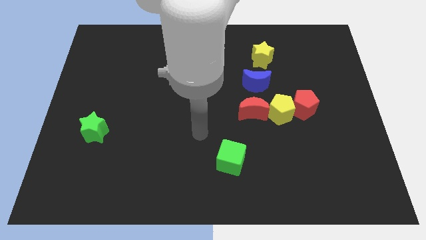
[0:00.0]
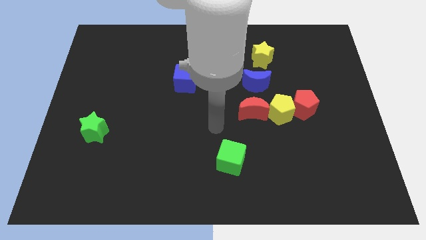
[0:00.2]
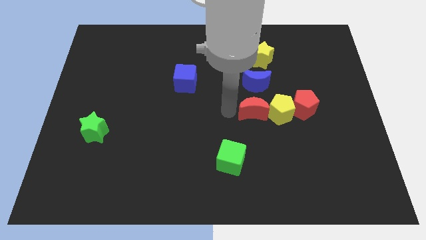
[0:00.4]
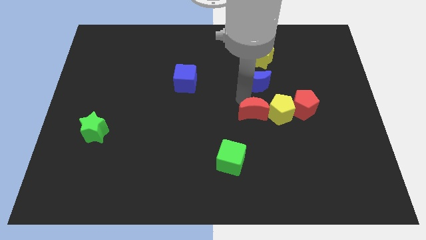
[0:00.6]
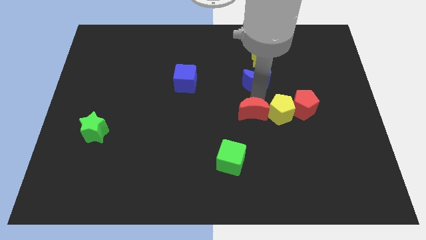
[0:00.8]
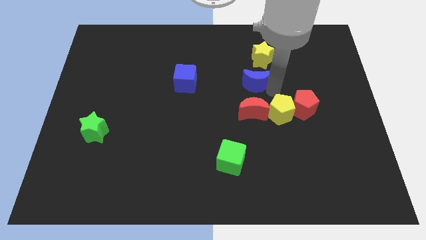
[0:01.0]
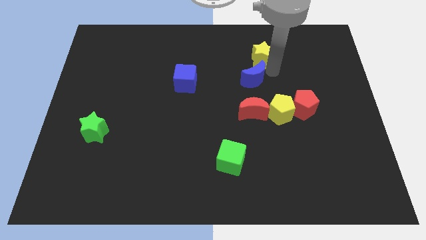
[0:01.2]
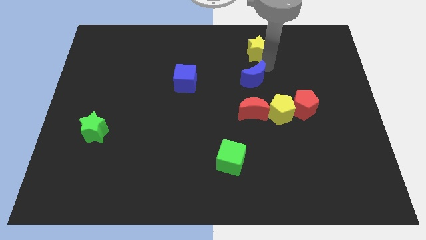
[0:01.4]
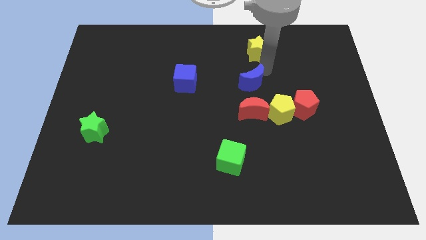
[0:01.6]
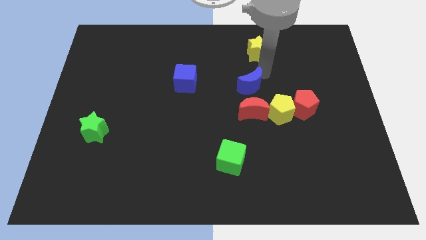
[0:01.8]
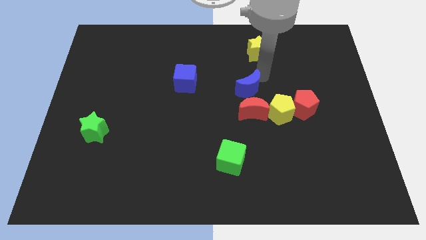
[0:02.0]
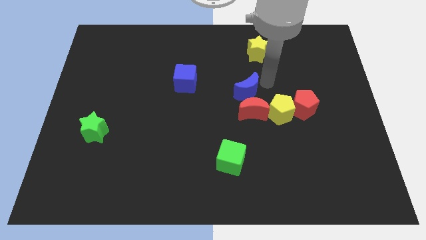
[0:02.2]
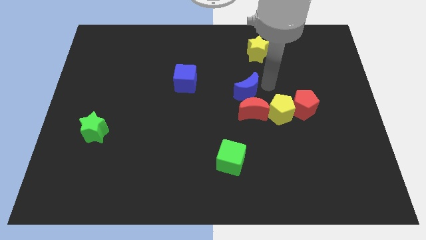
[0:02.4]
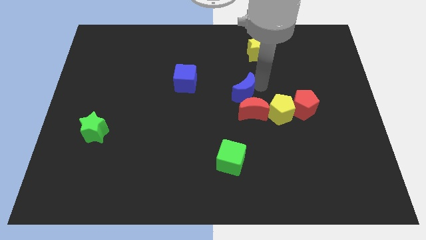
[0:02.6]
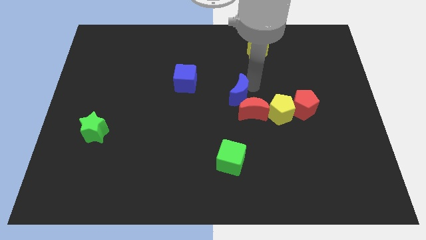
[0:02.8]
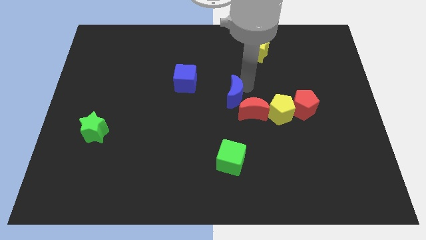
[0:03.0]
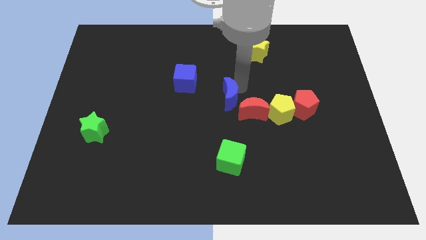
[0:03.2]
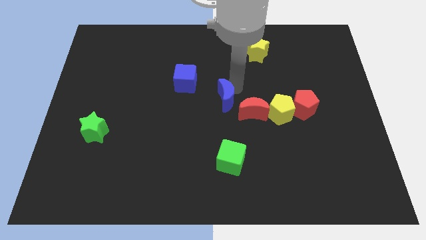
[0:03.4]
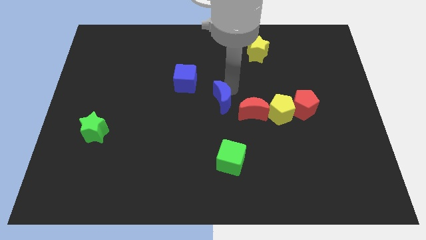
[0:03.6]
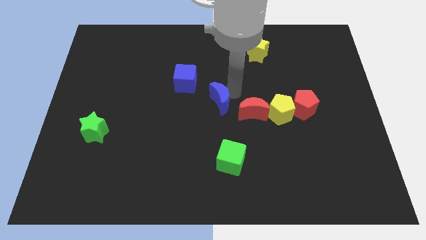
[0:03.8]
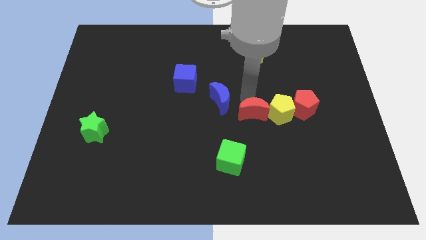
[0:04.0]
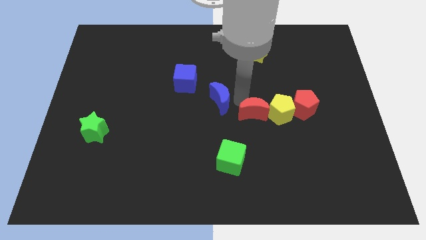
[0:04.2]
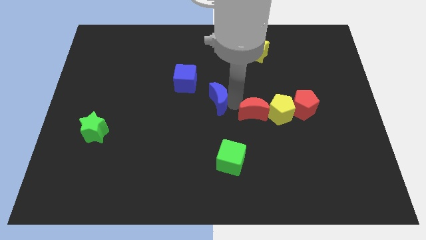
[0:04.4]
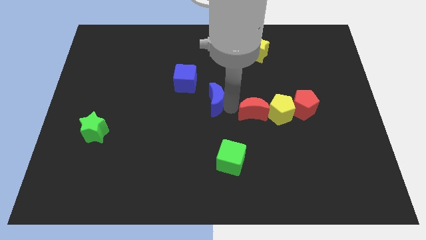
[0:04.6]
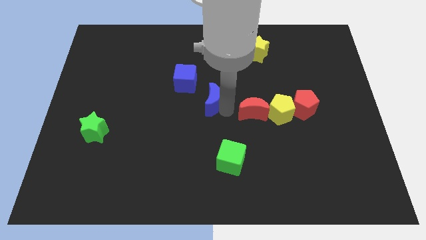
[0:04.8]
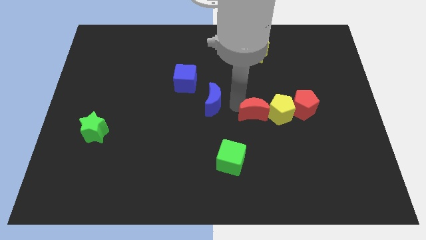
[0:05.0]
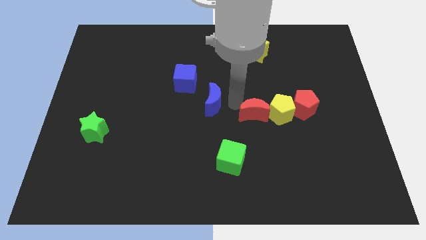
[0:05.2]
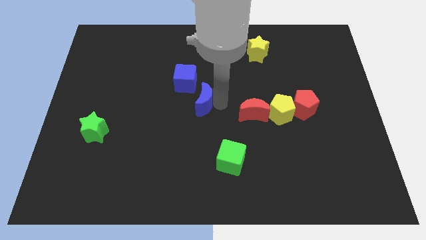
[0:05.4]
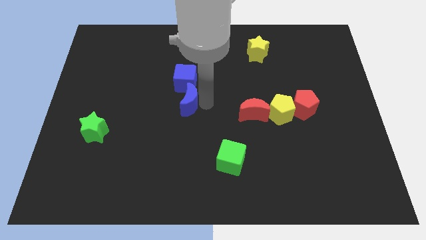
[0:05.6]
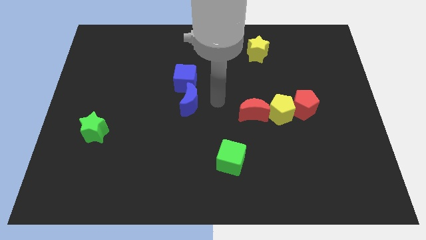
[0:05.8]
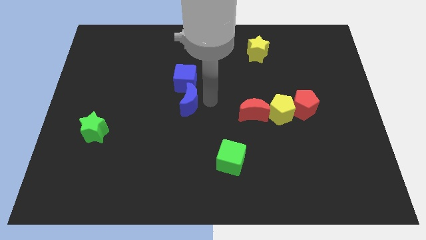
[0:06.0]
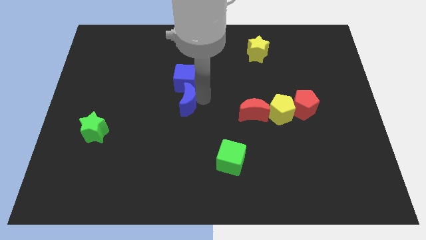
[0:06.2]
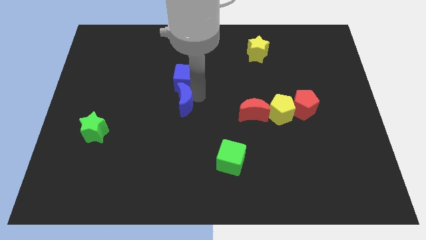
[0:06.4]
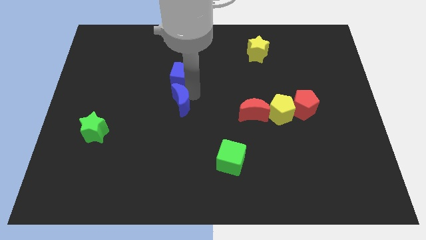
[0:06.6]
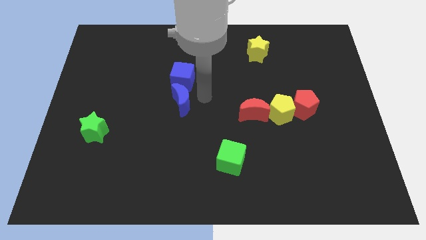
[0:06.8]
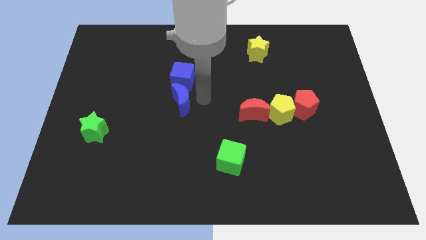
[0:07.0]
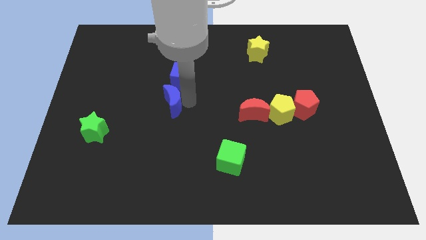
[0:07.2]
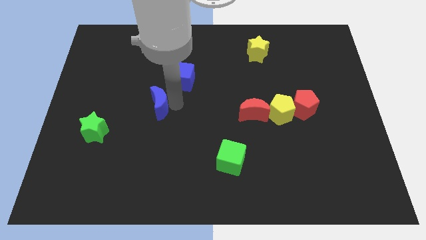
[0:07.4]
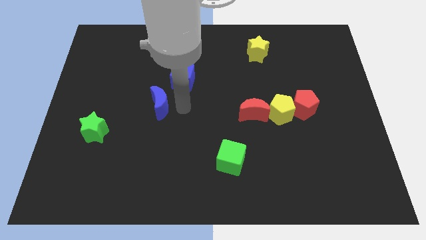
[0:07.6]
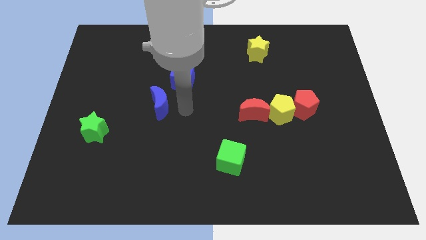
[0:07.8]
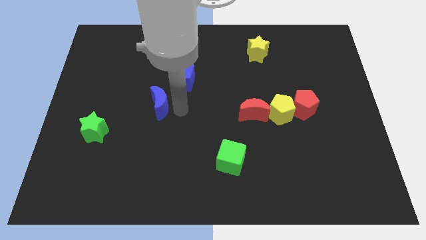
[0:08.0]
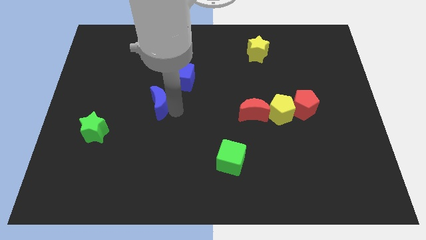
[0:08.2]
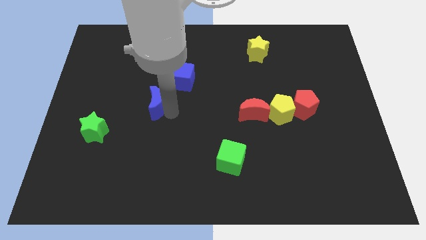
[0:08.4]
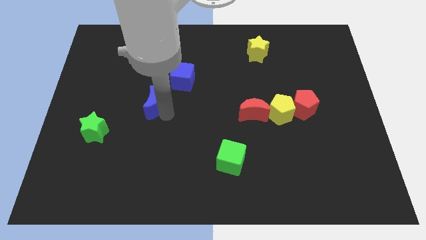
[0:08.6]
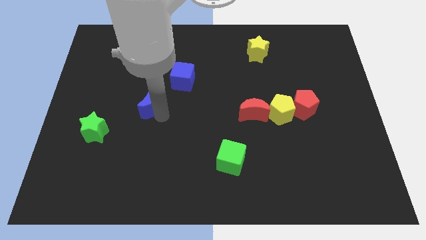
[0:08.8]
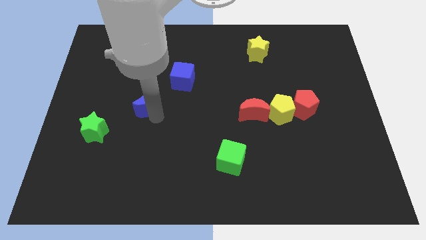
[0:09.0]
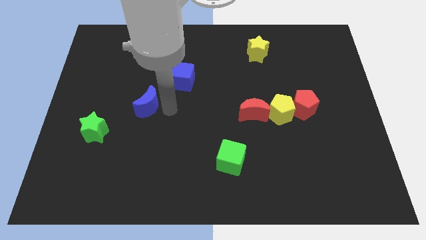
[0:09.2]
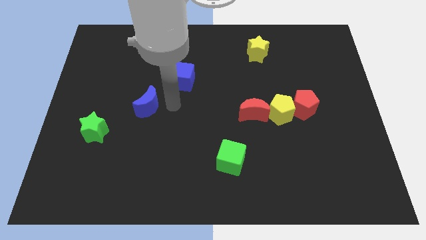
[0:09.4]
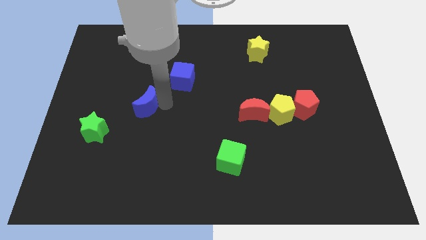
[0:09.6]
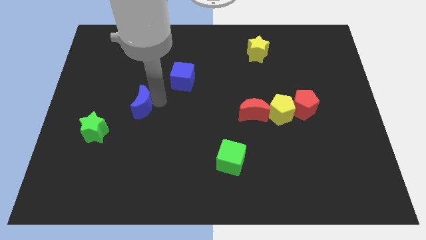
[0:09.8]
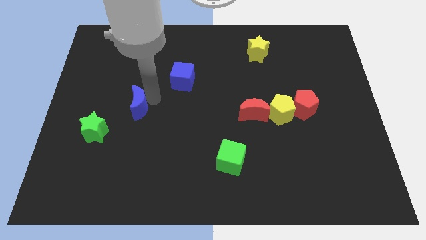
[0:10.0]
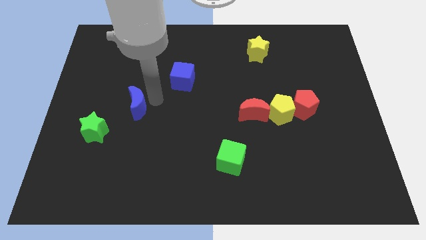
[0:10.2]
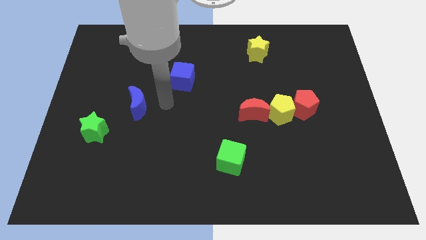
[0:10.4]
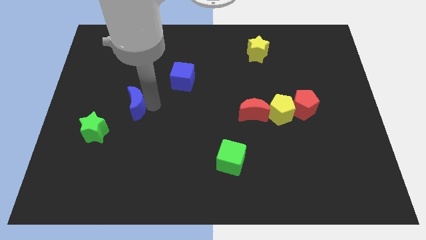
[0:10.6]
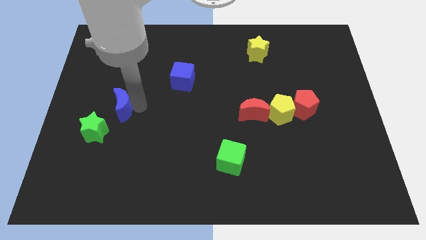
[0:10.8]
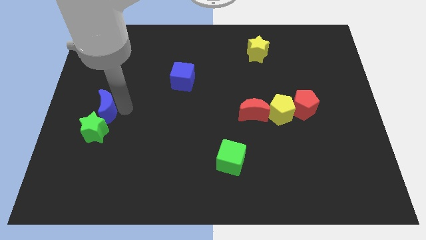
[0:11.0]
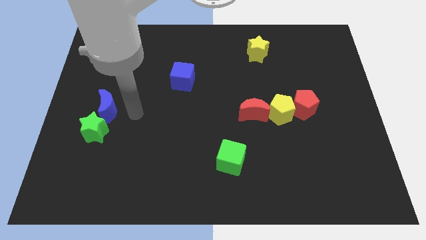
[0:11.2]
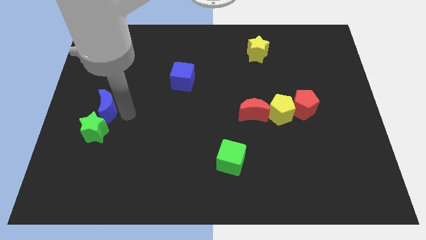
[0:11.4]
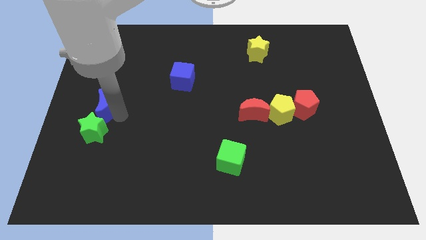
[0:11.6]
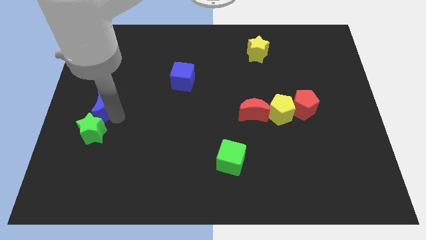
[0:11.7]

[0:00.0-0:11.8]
slide the blue moon to the left side
